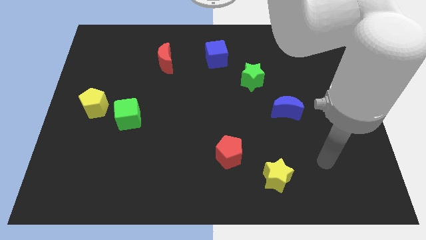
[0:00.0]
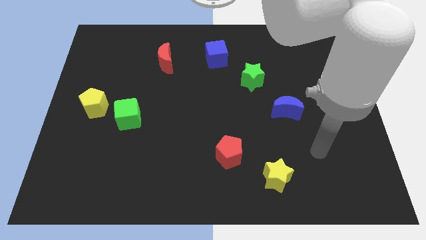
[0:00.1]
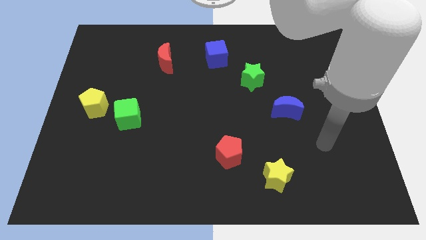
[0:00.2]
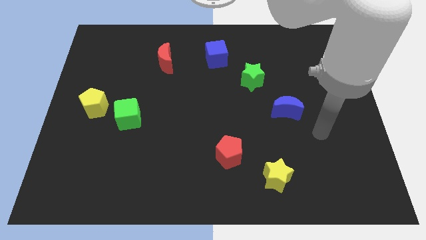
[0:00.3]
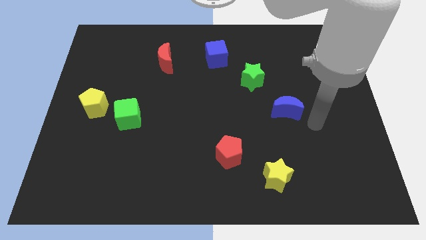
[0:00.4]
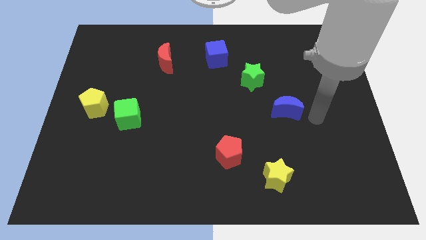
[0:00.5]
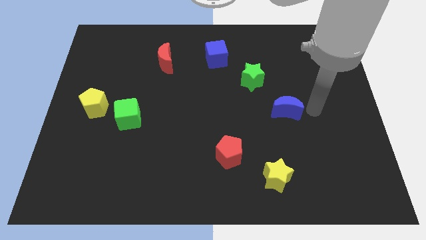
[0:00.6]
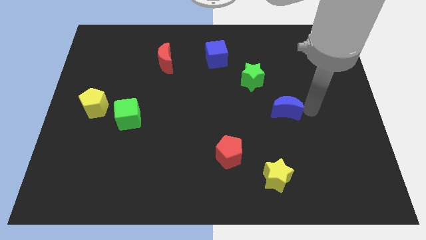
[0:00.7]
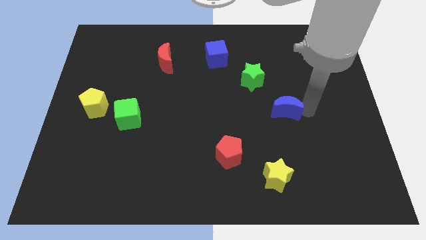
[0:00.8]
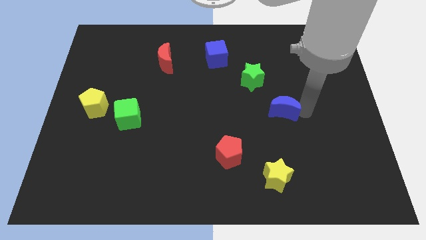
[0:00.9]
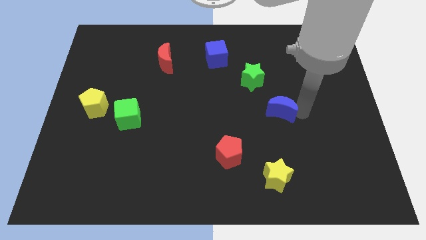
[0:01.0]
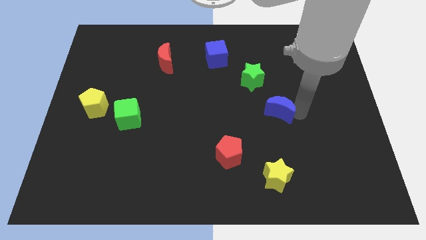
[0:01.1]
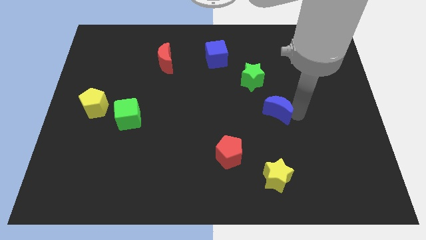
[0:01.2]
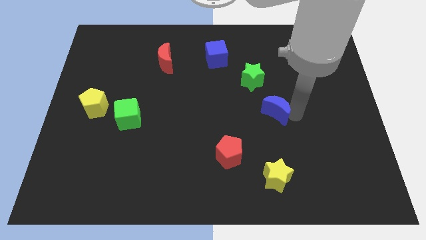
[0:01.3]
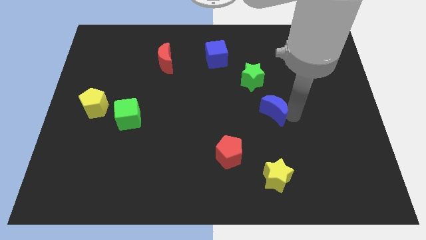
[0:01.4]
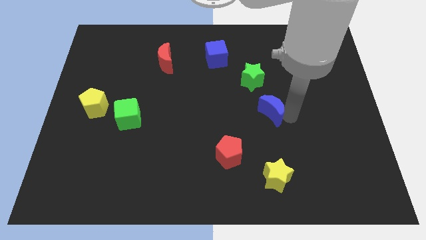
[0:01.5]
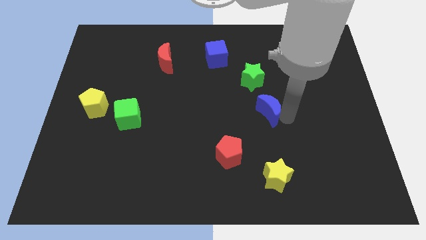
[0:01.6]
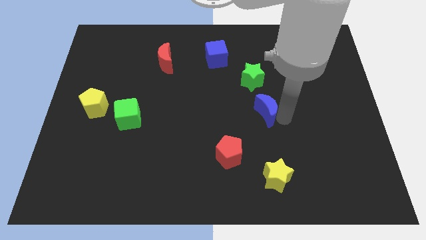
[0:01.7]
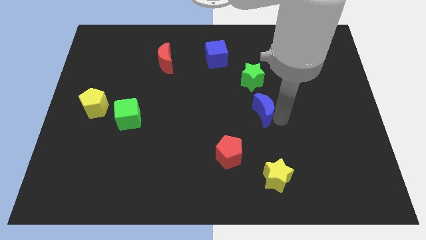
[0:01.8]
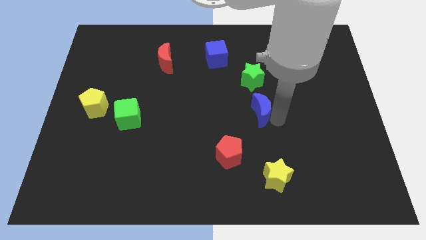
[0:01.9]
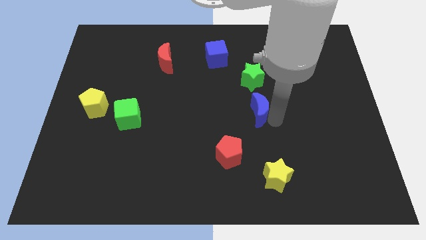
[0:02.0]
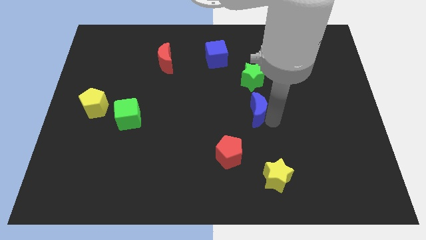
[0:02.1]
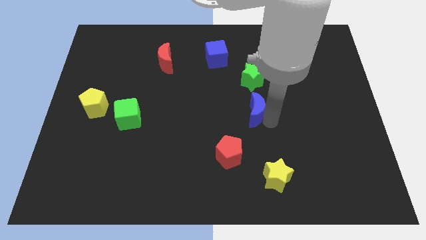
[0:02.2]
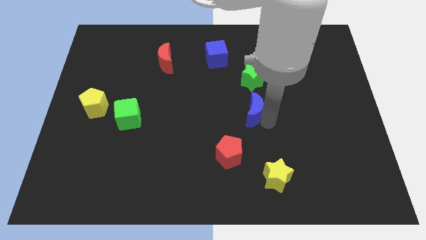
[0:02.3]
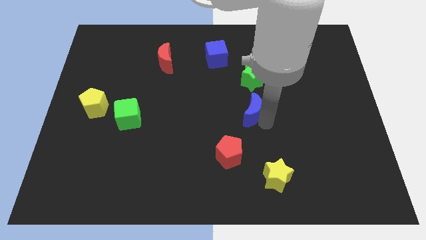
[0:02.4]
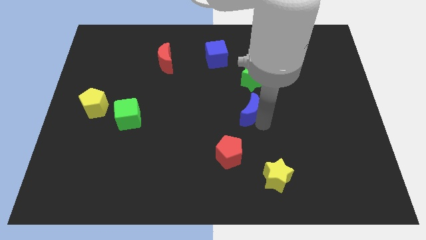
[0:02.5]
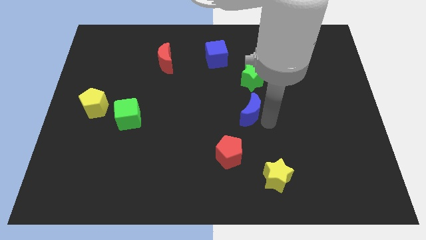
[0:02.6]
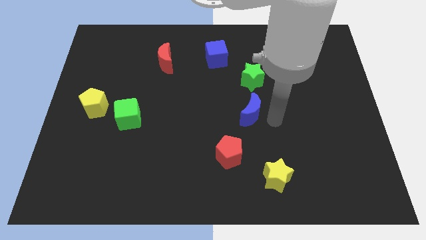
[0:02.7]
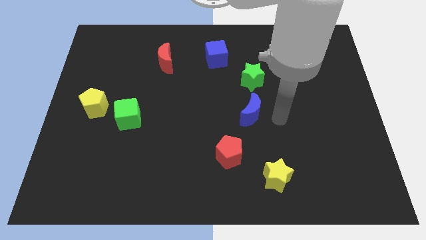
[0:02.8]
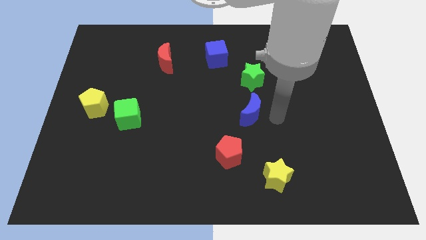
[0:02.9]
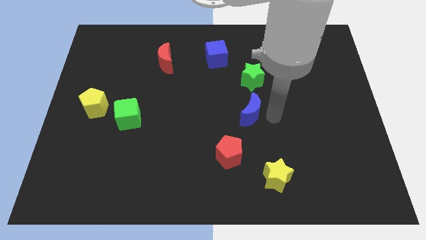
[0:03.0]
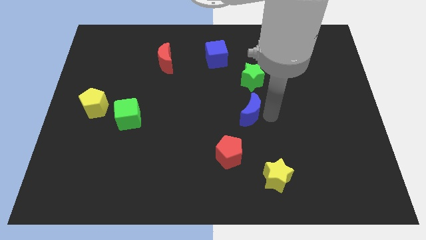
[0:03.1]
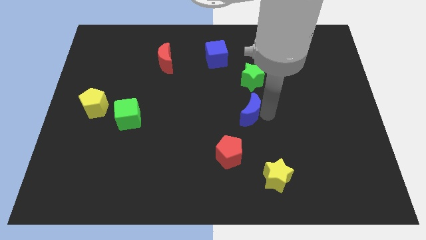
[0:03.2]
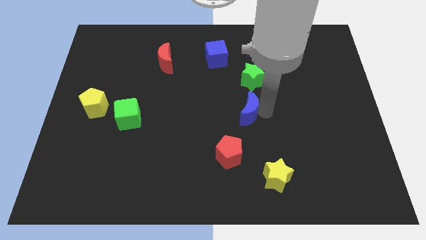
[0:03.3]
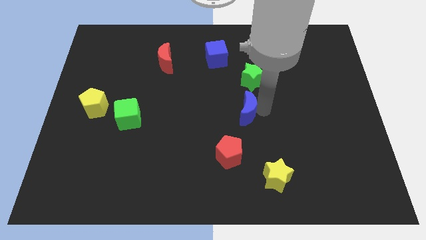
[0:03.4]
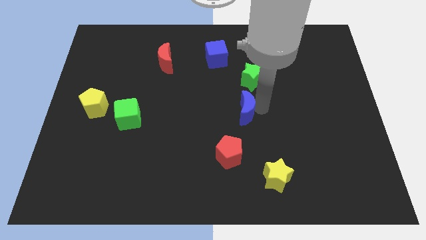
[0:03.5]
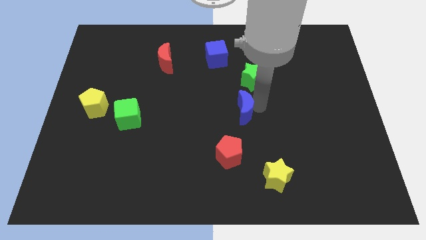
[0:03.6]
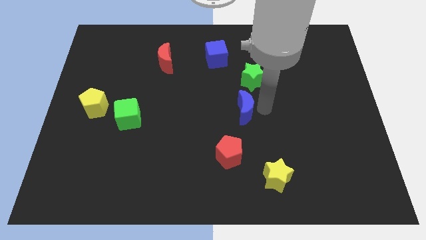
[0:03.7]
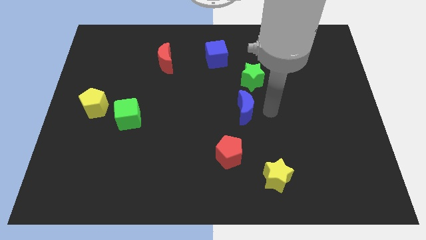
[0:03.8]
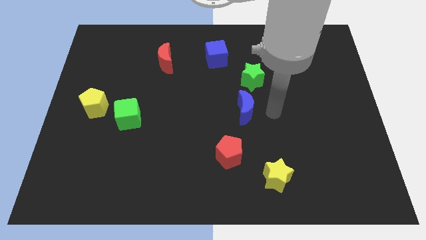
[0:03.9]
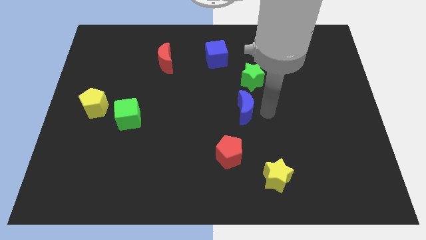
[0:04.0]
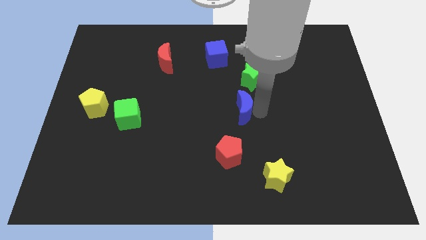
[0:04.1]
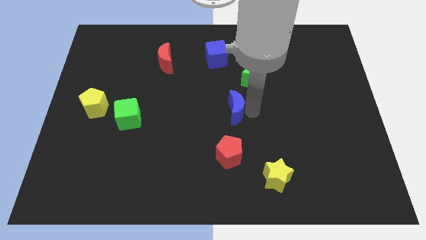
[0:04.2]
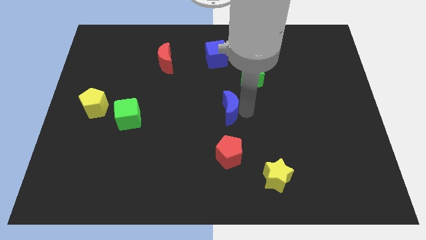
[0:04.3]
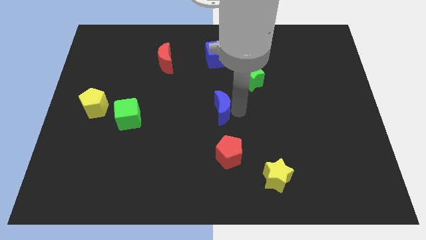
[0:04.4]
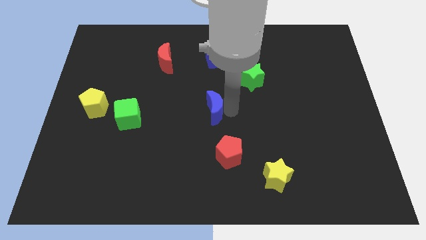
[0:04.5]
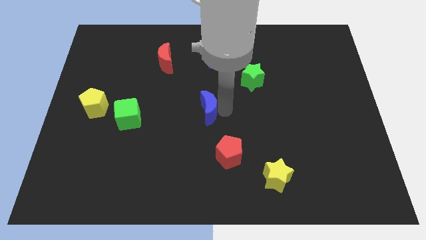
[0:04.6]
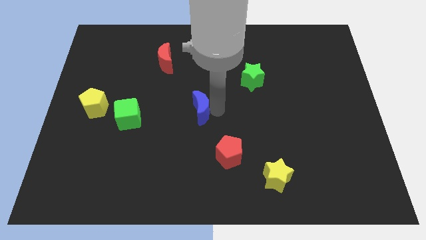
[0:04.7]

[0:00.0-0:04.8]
push the blue moon left

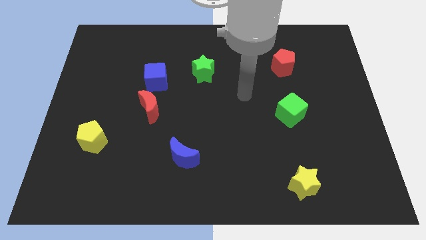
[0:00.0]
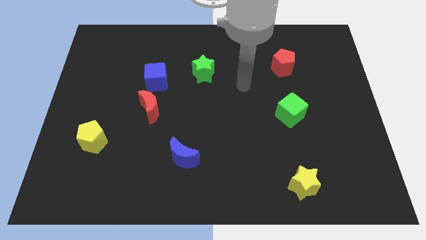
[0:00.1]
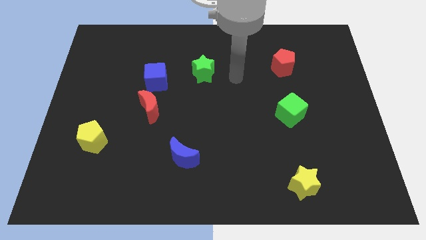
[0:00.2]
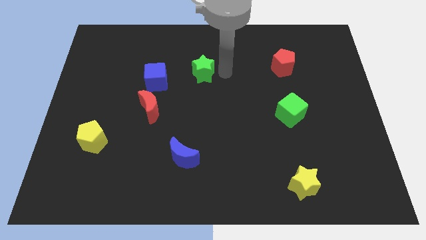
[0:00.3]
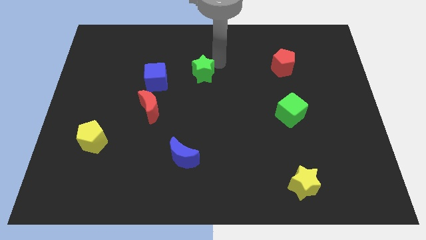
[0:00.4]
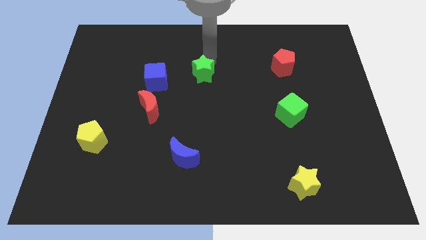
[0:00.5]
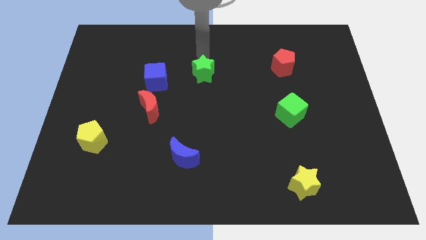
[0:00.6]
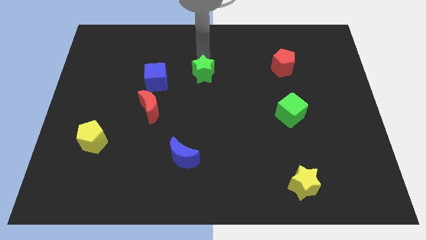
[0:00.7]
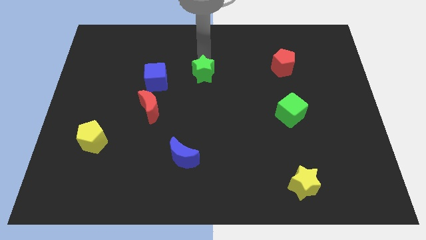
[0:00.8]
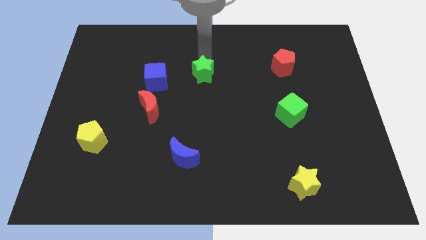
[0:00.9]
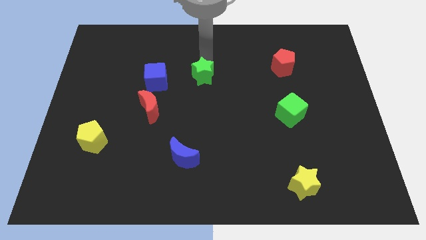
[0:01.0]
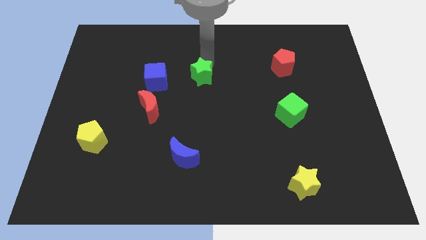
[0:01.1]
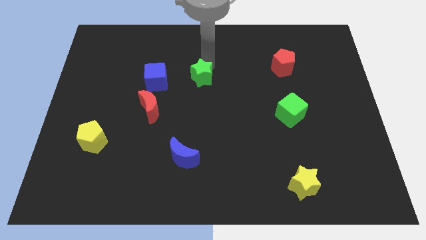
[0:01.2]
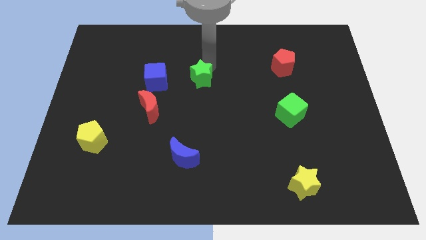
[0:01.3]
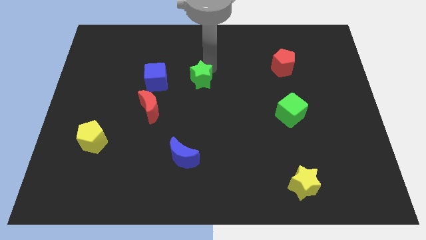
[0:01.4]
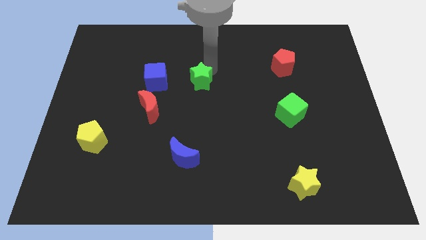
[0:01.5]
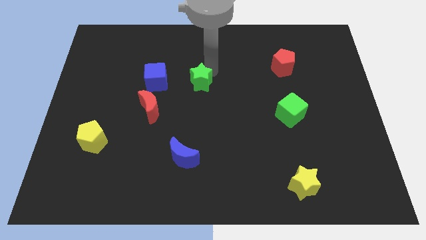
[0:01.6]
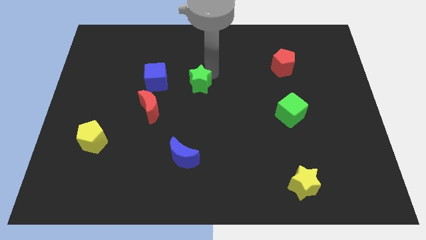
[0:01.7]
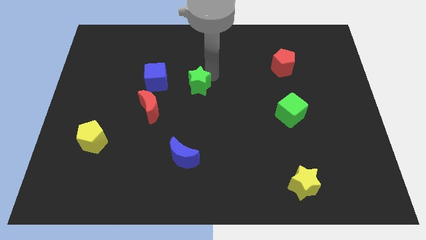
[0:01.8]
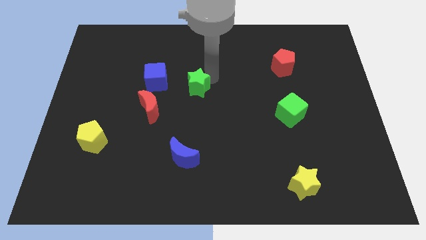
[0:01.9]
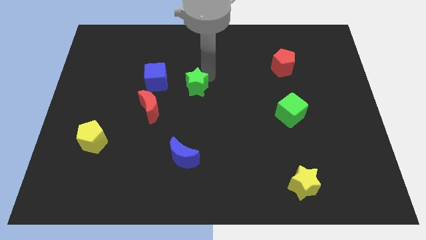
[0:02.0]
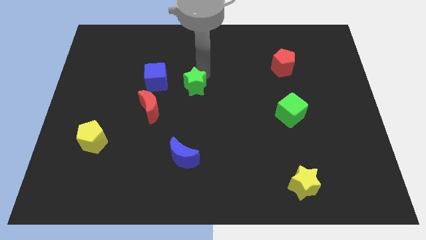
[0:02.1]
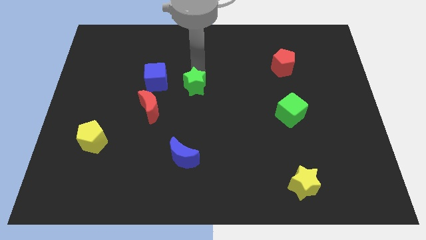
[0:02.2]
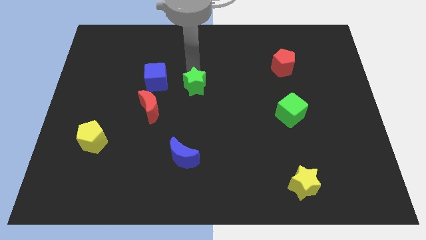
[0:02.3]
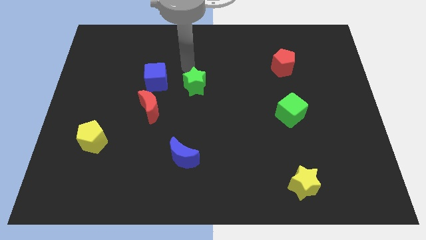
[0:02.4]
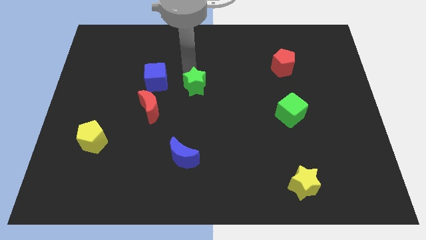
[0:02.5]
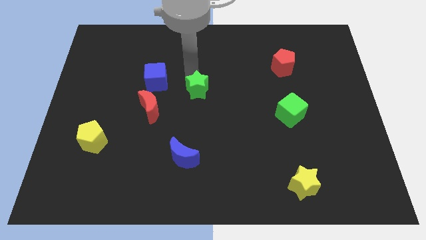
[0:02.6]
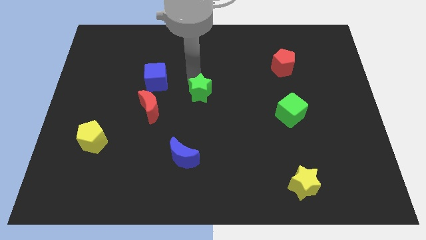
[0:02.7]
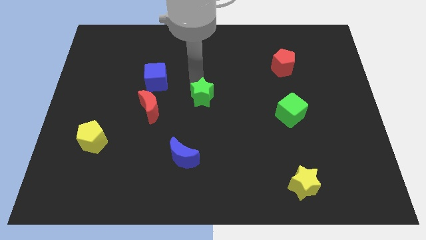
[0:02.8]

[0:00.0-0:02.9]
slightly move the green star down
